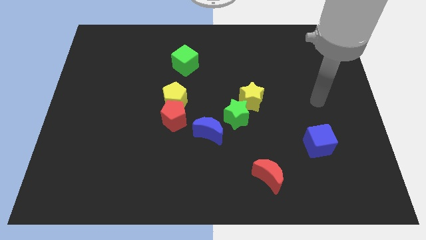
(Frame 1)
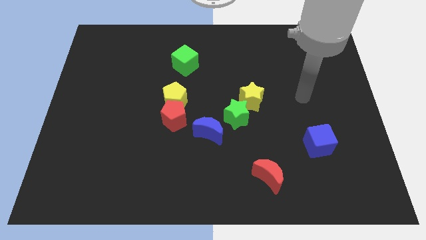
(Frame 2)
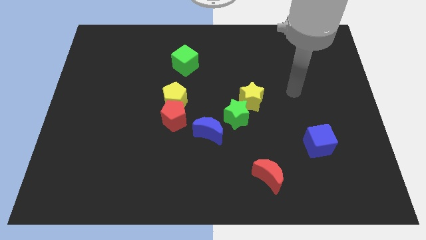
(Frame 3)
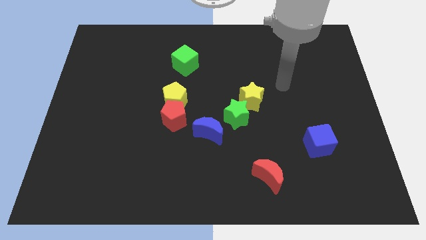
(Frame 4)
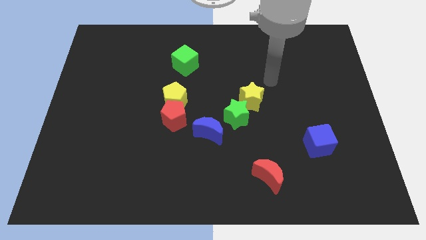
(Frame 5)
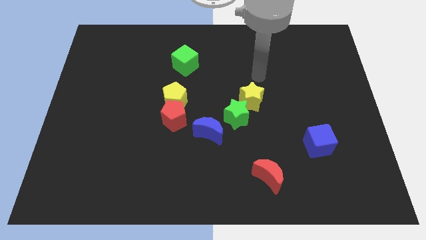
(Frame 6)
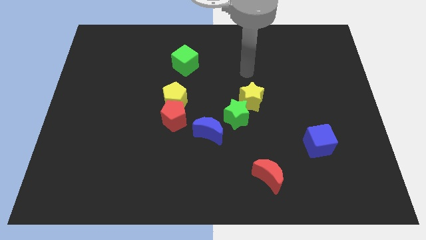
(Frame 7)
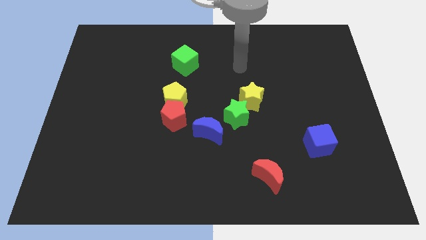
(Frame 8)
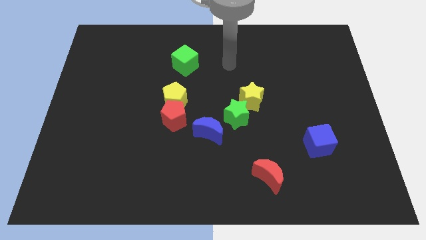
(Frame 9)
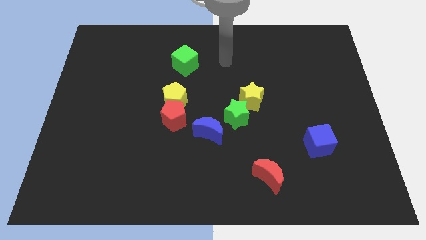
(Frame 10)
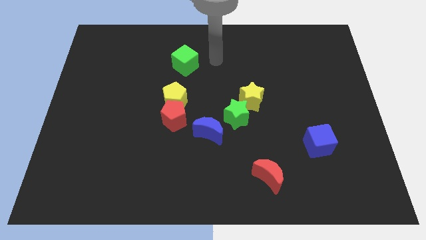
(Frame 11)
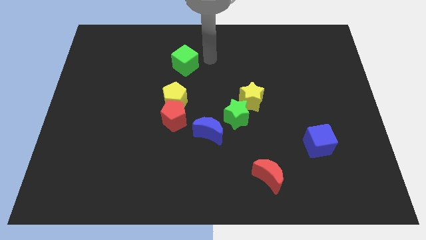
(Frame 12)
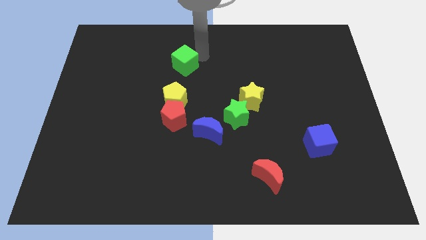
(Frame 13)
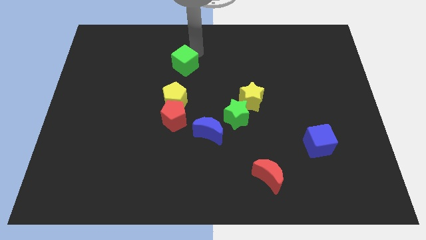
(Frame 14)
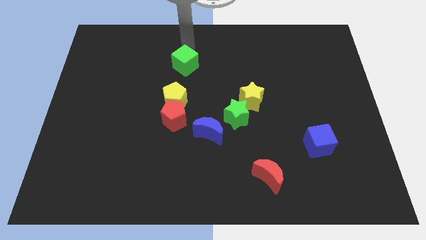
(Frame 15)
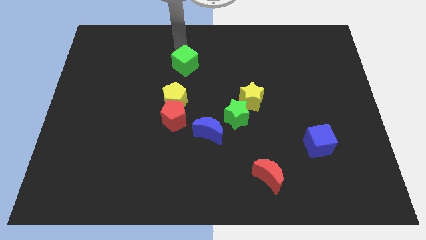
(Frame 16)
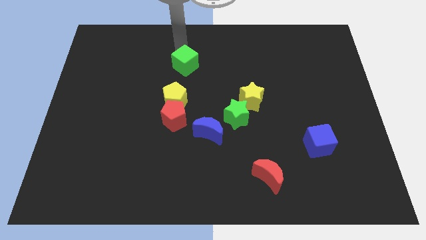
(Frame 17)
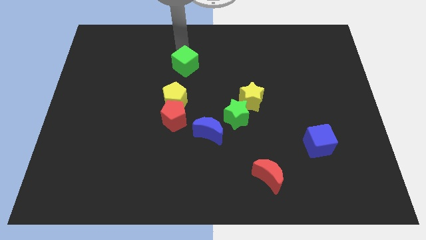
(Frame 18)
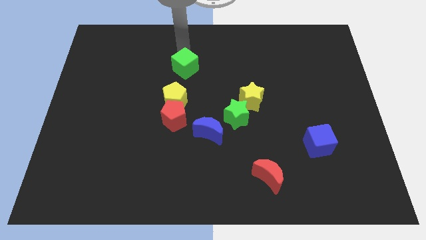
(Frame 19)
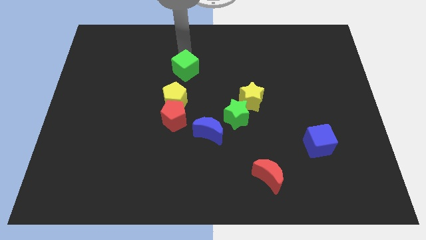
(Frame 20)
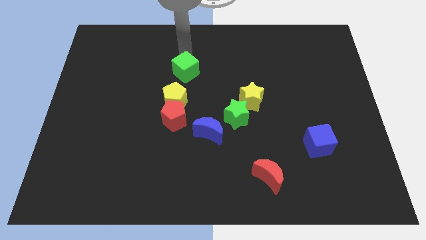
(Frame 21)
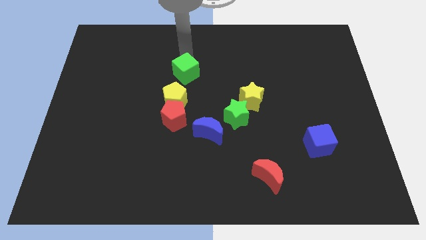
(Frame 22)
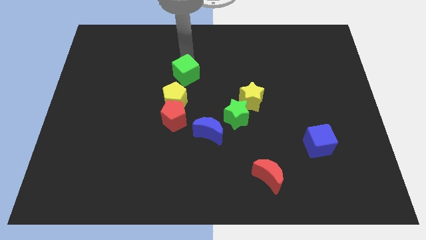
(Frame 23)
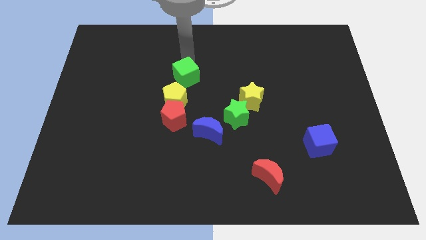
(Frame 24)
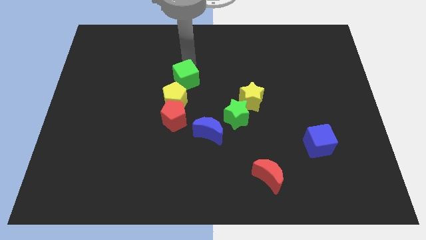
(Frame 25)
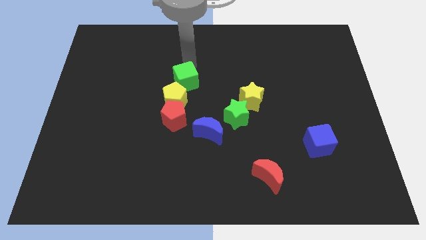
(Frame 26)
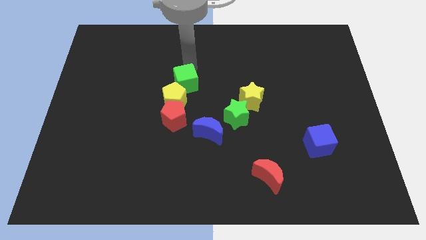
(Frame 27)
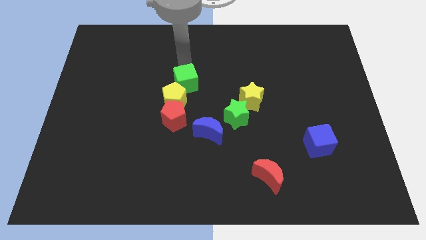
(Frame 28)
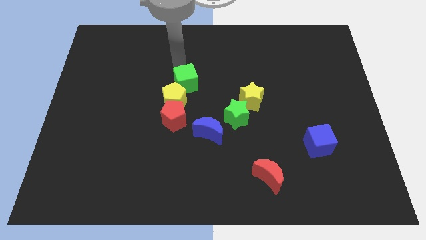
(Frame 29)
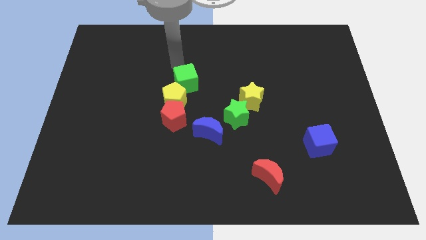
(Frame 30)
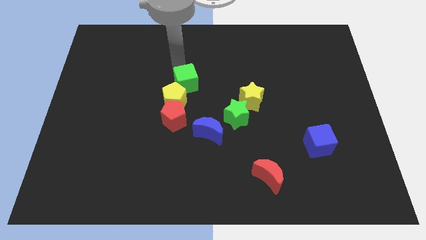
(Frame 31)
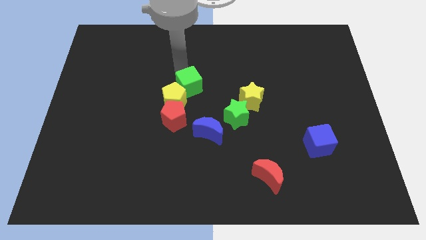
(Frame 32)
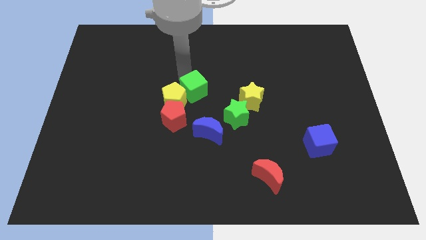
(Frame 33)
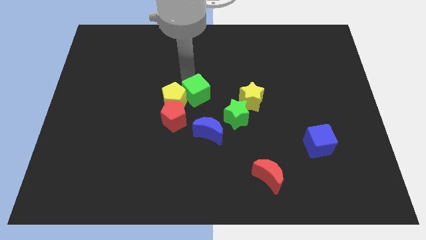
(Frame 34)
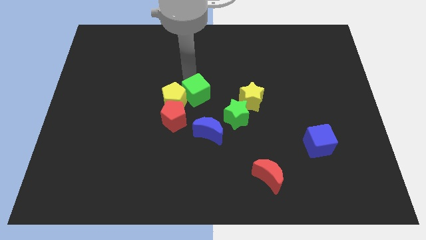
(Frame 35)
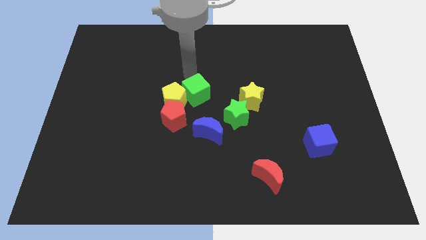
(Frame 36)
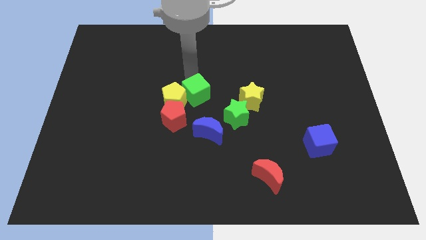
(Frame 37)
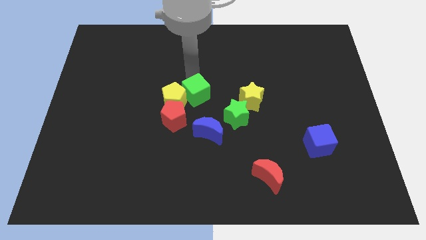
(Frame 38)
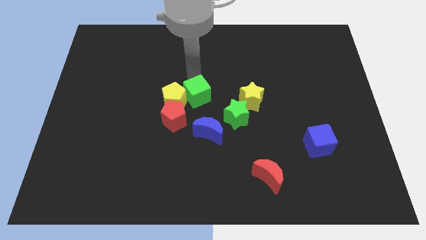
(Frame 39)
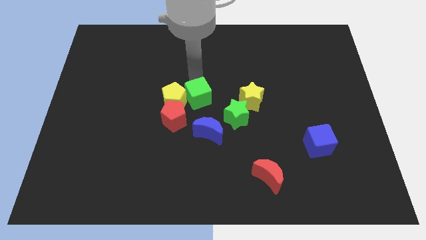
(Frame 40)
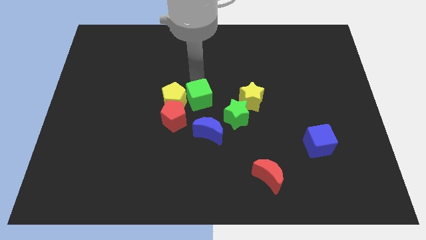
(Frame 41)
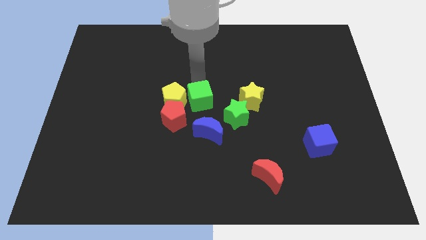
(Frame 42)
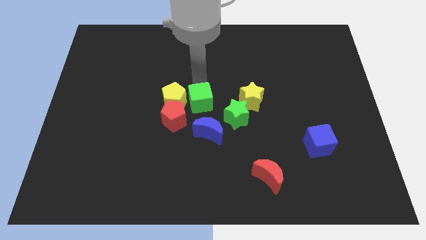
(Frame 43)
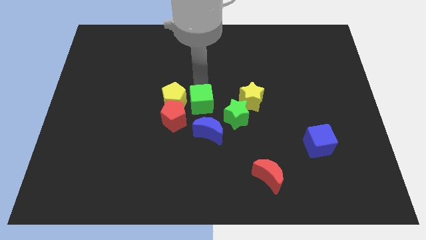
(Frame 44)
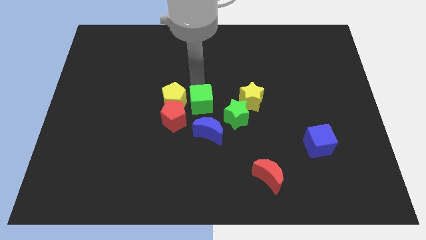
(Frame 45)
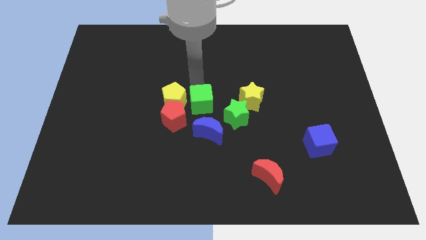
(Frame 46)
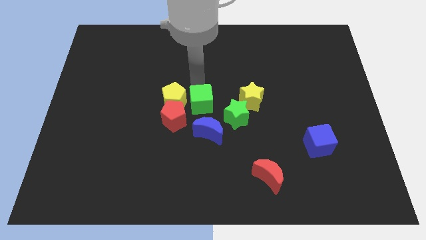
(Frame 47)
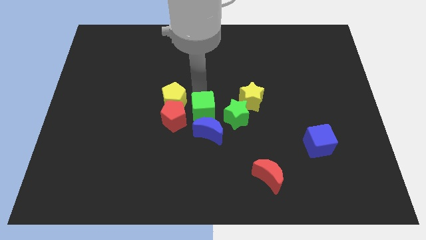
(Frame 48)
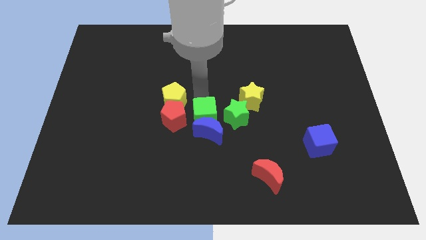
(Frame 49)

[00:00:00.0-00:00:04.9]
put the green cube towards the blue moon

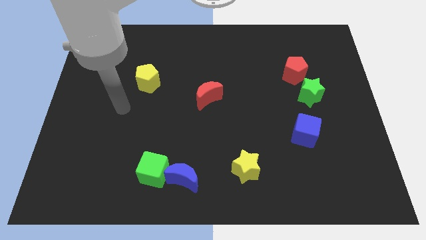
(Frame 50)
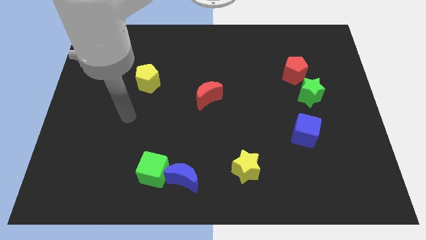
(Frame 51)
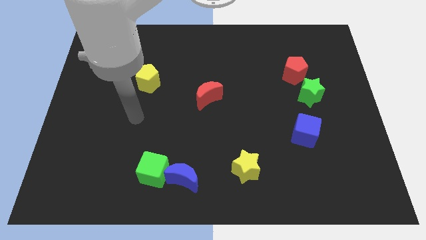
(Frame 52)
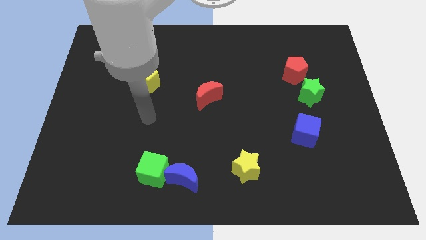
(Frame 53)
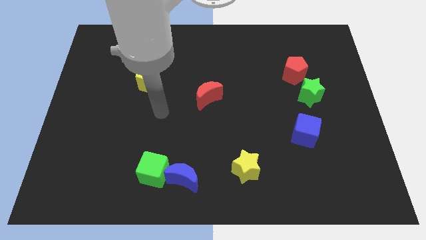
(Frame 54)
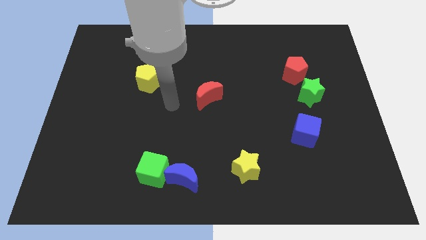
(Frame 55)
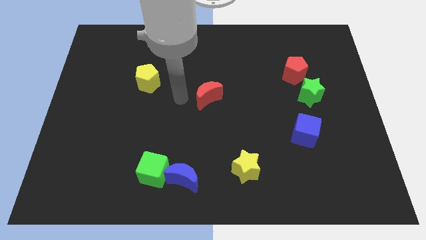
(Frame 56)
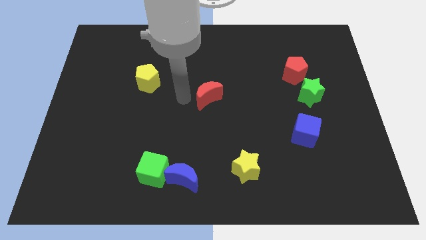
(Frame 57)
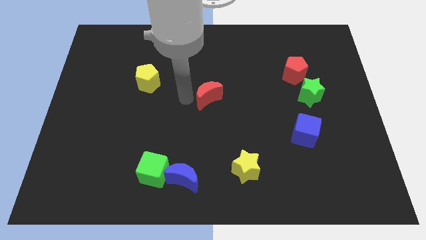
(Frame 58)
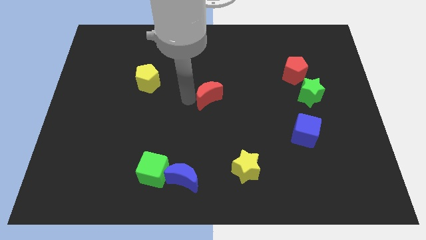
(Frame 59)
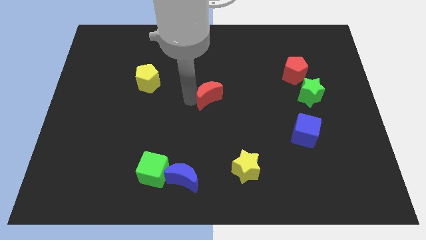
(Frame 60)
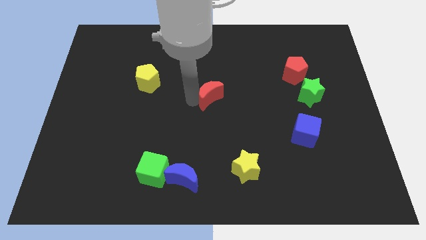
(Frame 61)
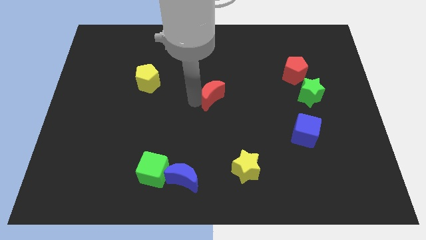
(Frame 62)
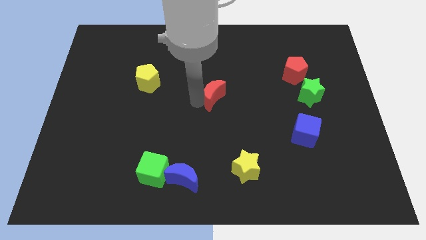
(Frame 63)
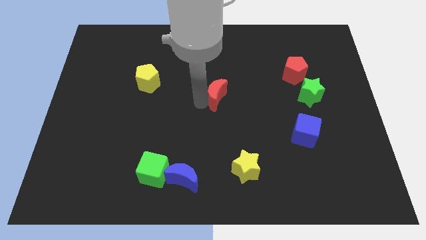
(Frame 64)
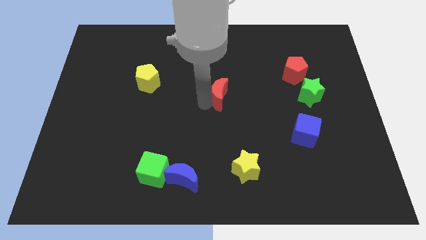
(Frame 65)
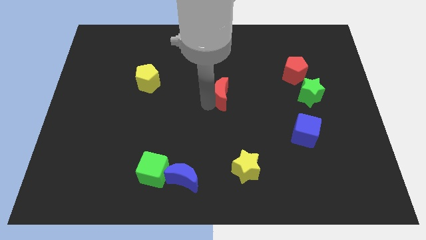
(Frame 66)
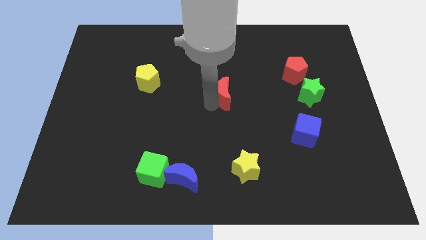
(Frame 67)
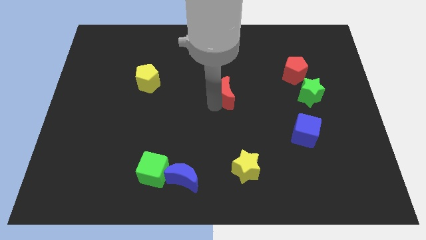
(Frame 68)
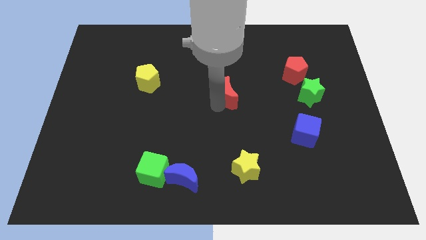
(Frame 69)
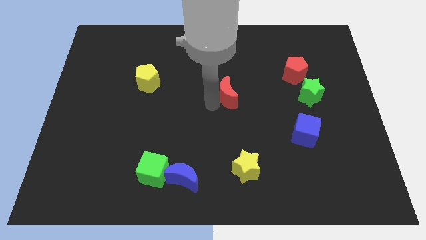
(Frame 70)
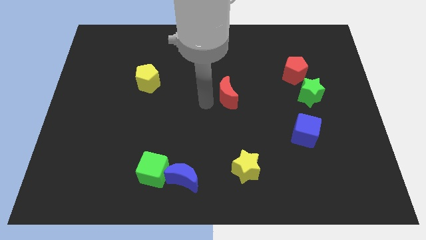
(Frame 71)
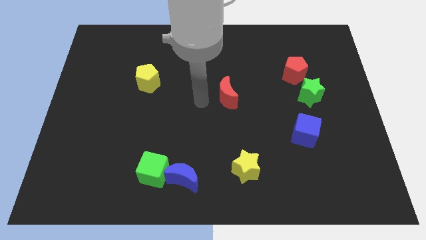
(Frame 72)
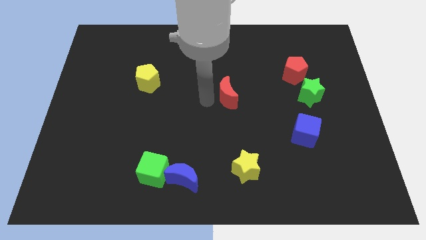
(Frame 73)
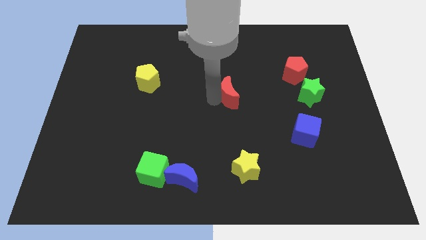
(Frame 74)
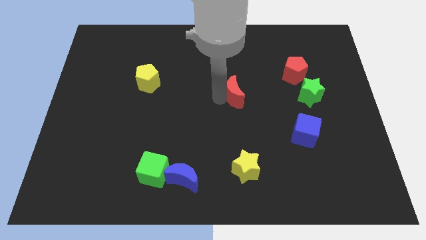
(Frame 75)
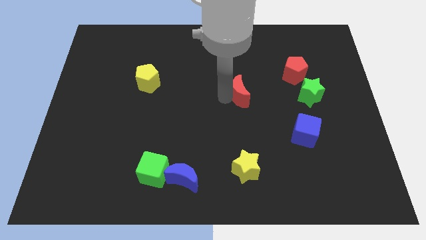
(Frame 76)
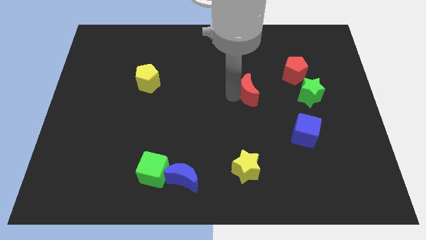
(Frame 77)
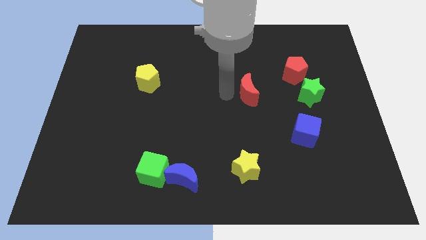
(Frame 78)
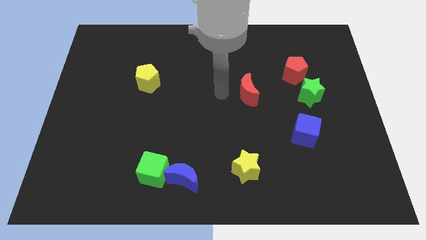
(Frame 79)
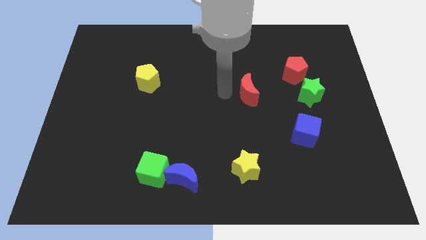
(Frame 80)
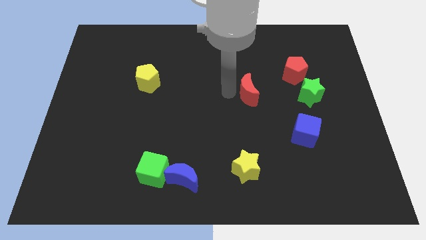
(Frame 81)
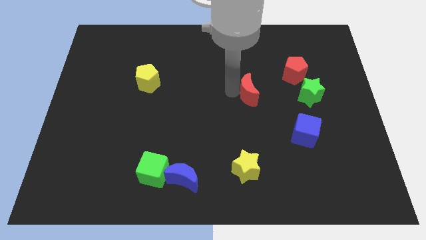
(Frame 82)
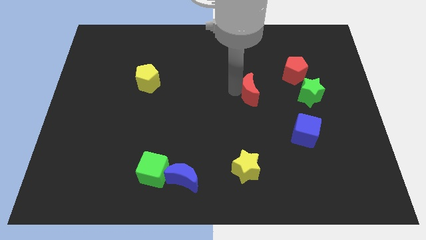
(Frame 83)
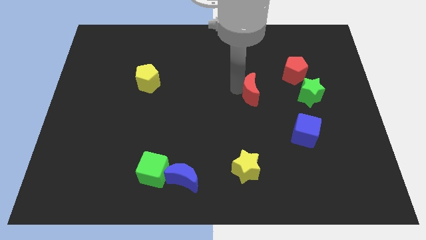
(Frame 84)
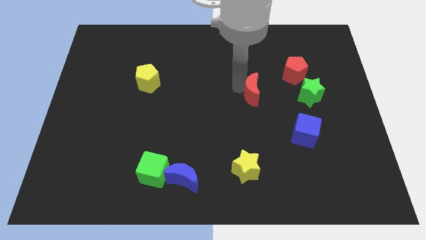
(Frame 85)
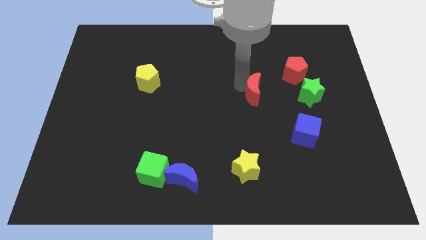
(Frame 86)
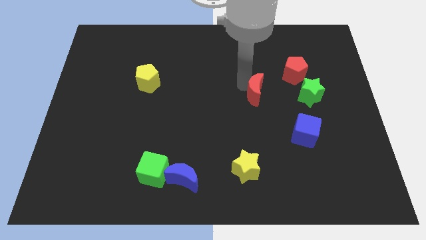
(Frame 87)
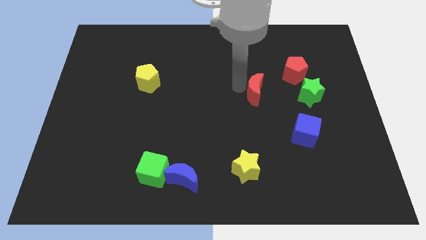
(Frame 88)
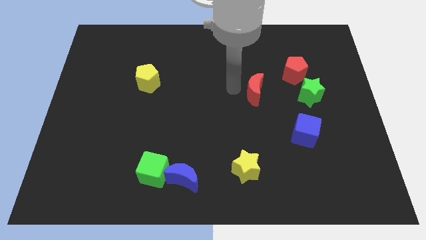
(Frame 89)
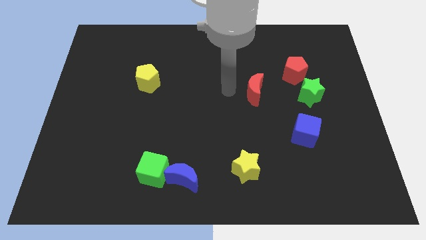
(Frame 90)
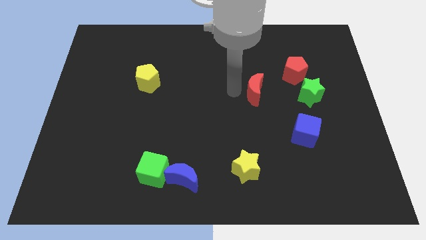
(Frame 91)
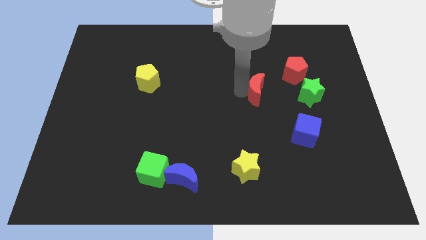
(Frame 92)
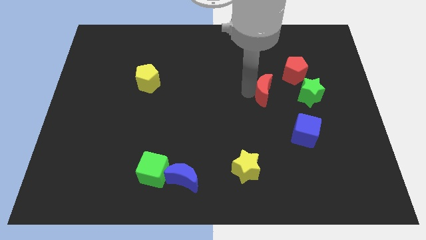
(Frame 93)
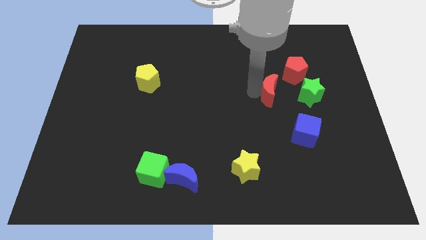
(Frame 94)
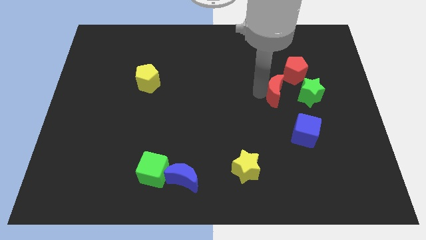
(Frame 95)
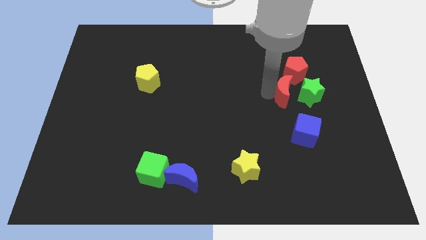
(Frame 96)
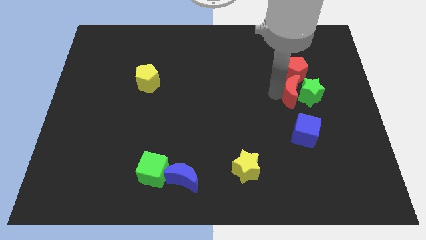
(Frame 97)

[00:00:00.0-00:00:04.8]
put the red moon next to the green star
